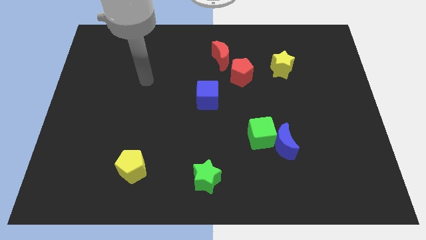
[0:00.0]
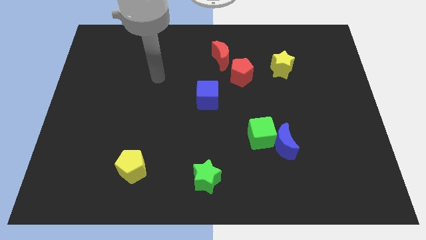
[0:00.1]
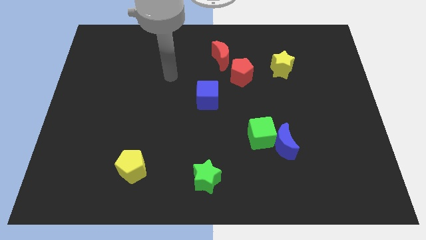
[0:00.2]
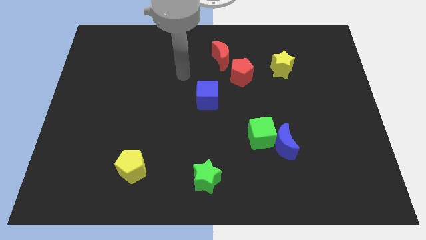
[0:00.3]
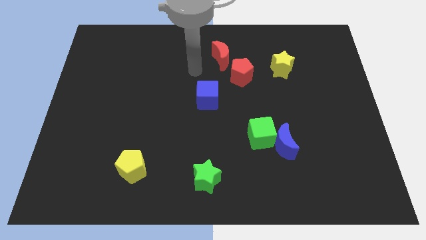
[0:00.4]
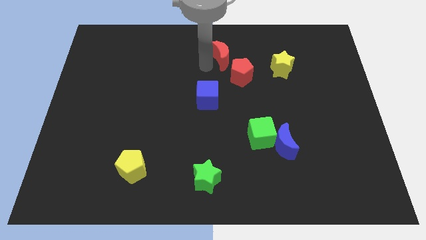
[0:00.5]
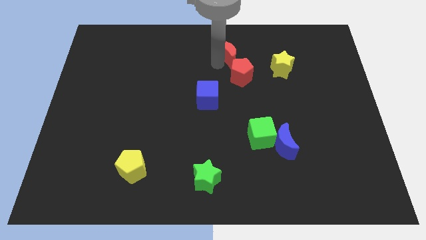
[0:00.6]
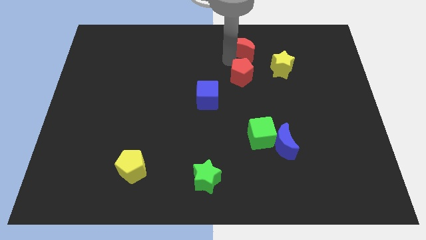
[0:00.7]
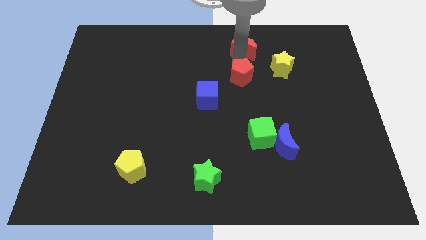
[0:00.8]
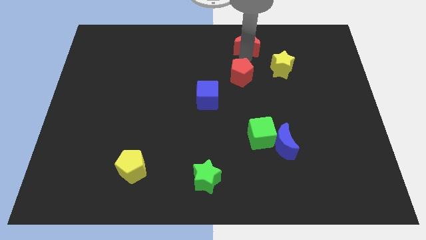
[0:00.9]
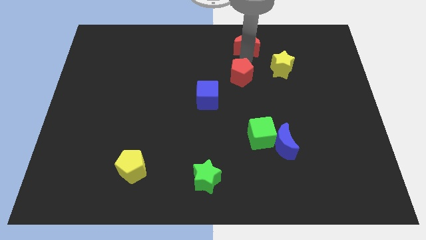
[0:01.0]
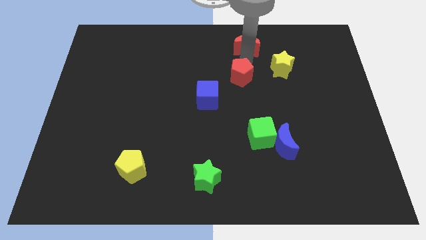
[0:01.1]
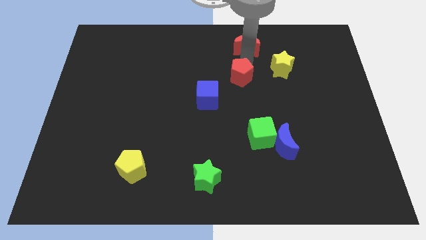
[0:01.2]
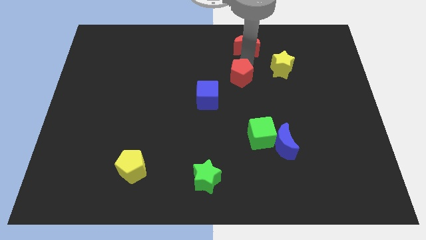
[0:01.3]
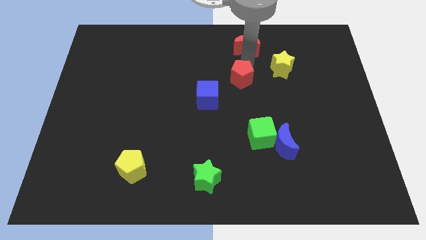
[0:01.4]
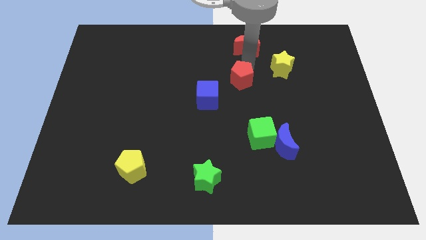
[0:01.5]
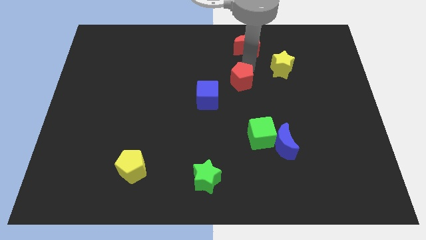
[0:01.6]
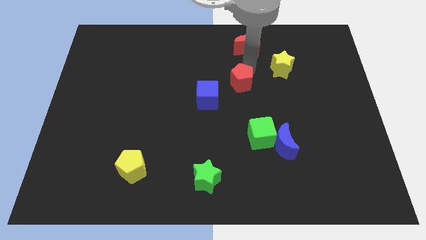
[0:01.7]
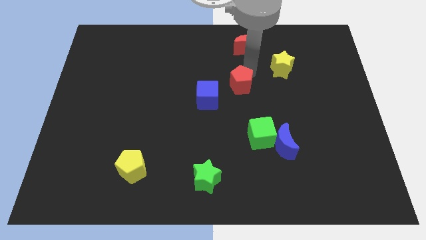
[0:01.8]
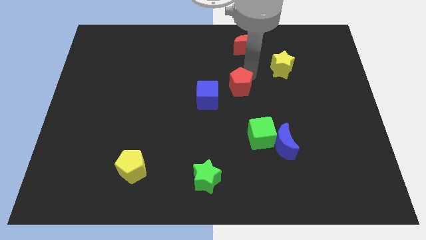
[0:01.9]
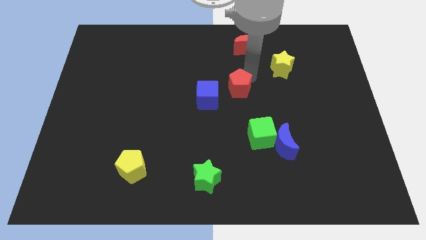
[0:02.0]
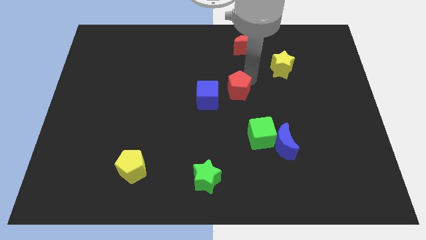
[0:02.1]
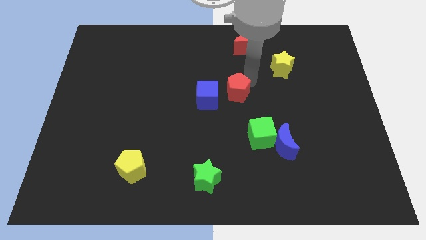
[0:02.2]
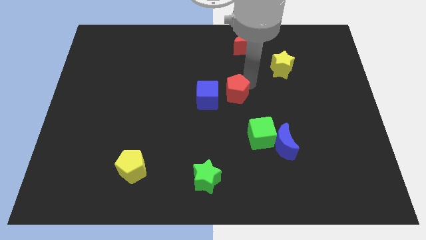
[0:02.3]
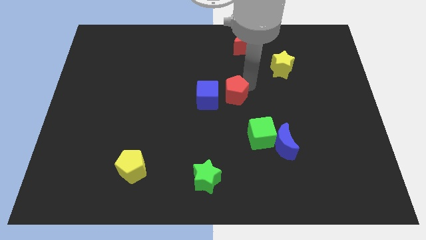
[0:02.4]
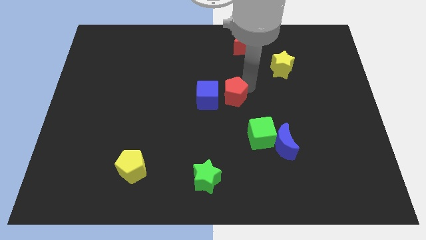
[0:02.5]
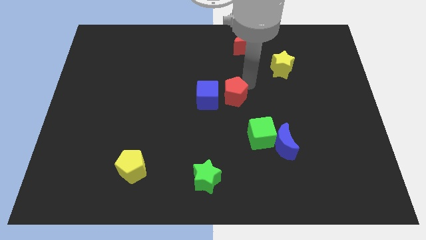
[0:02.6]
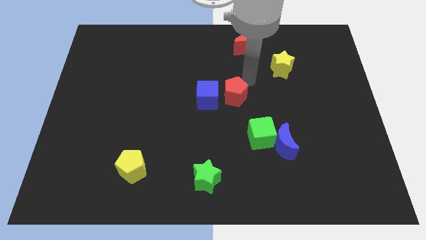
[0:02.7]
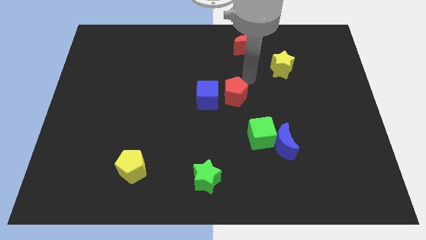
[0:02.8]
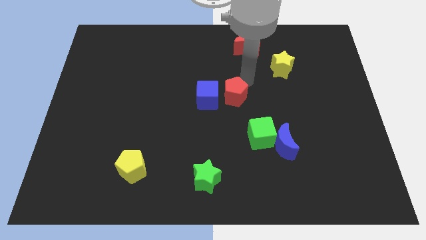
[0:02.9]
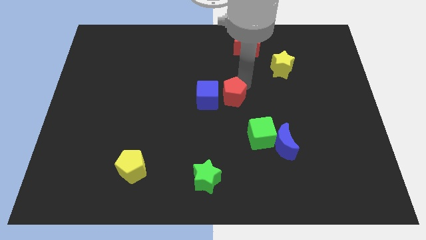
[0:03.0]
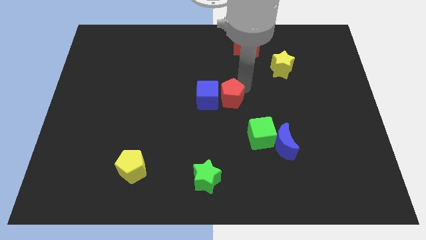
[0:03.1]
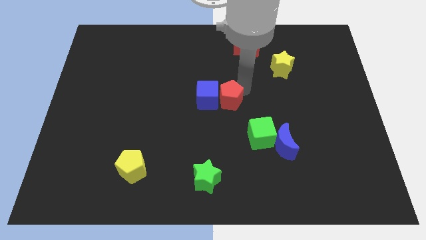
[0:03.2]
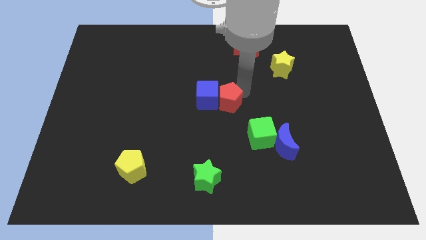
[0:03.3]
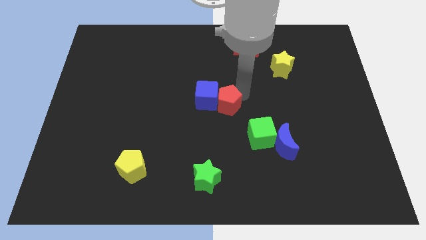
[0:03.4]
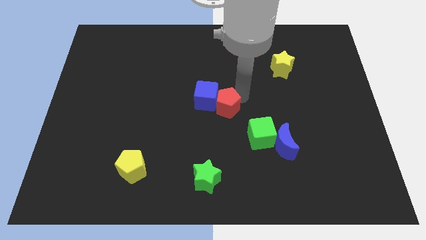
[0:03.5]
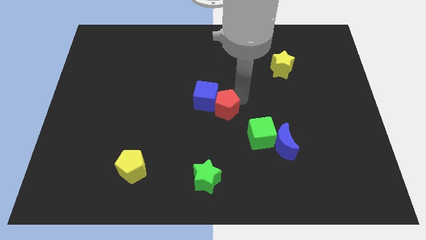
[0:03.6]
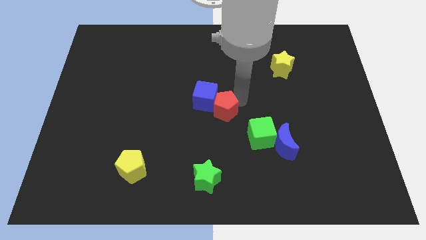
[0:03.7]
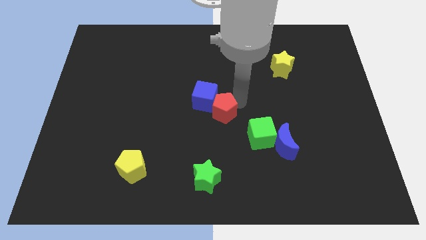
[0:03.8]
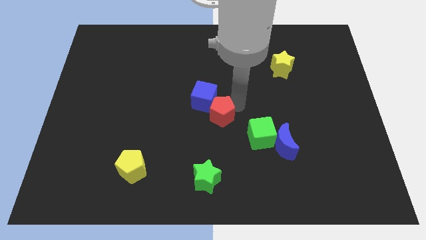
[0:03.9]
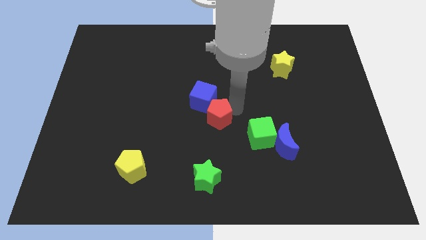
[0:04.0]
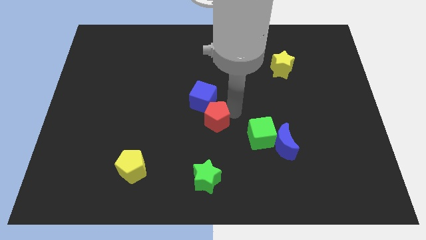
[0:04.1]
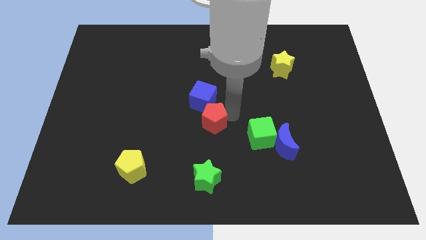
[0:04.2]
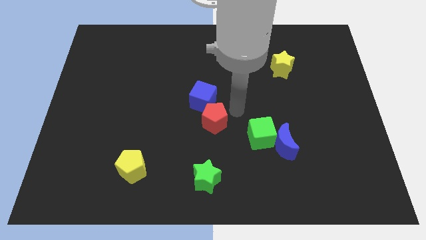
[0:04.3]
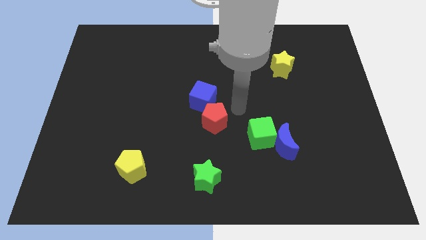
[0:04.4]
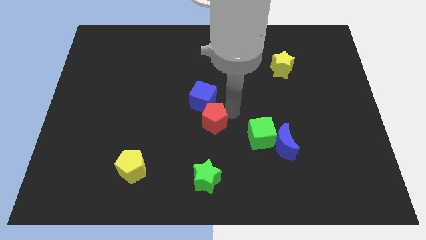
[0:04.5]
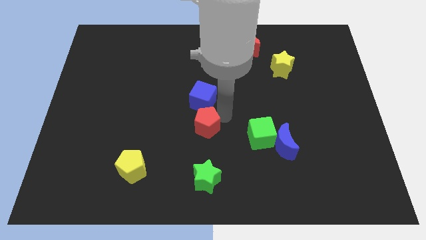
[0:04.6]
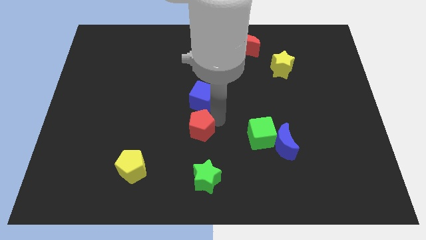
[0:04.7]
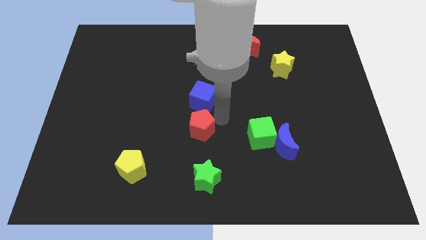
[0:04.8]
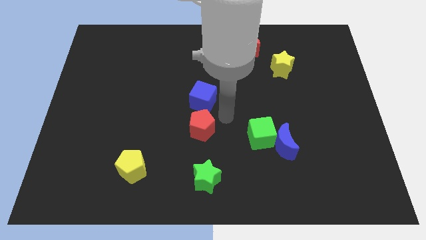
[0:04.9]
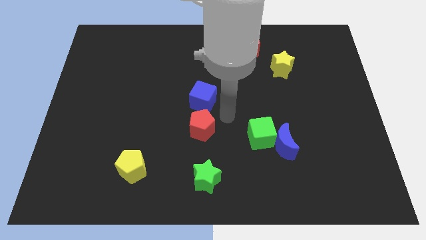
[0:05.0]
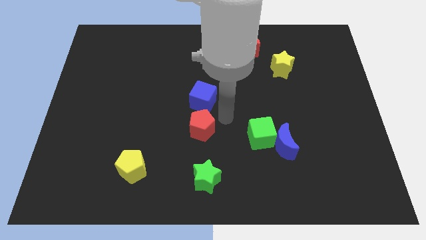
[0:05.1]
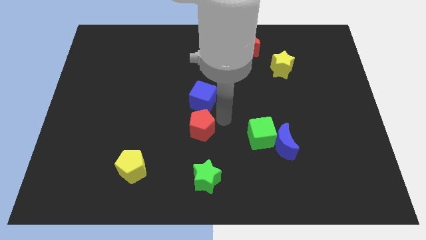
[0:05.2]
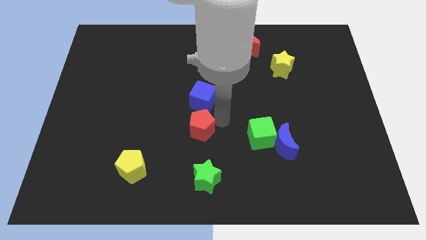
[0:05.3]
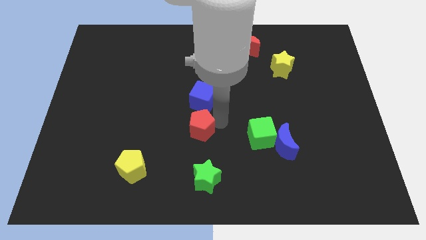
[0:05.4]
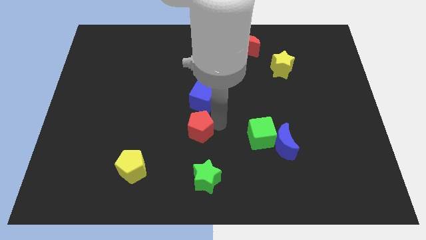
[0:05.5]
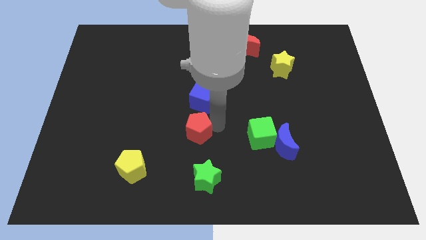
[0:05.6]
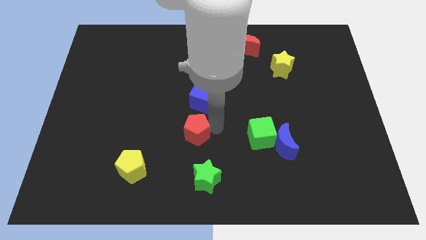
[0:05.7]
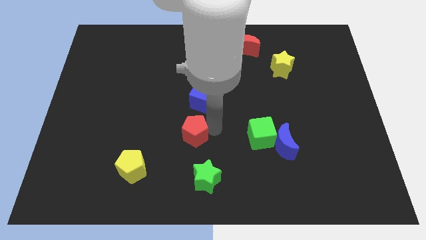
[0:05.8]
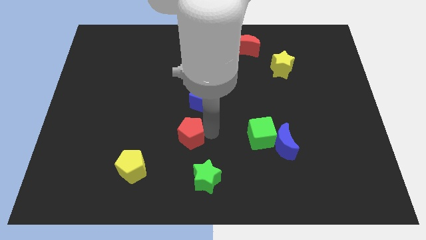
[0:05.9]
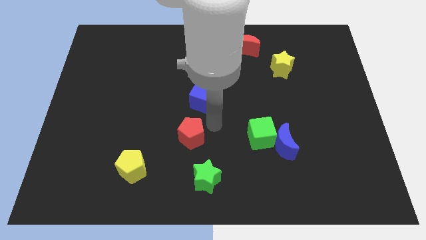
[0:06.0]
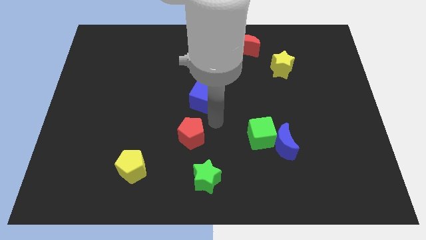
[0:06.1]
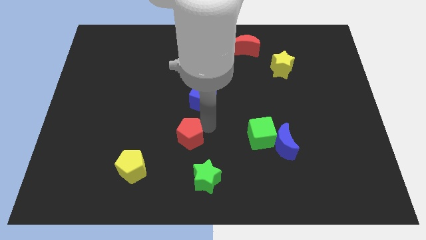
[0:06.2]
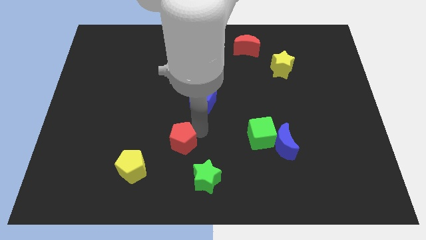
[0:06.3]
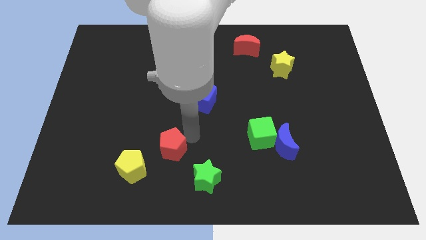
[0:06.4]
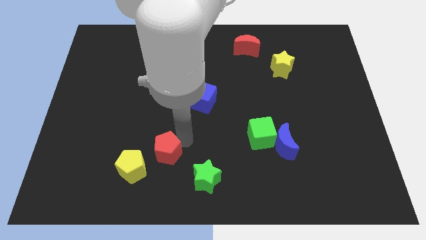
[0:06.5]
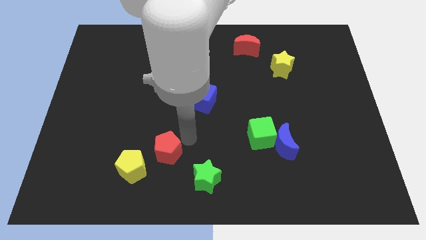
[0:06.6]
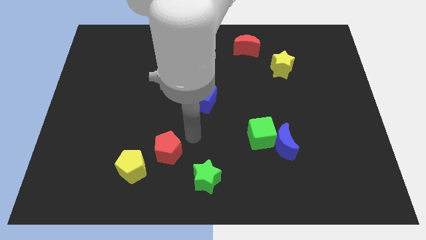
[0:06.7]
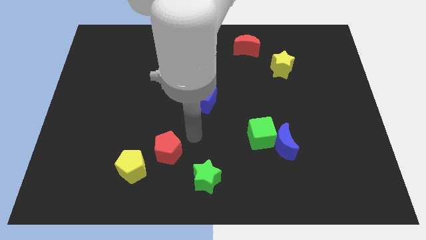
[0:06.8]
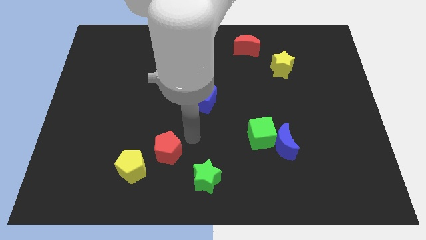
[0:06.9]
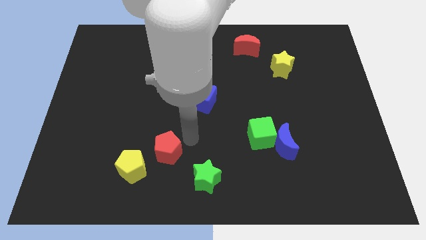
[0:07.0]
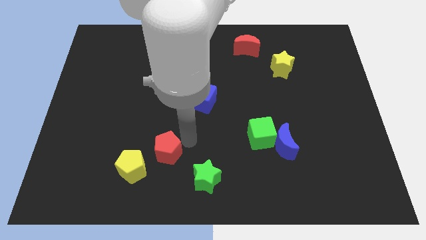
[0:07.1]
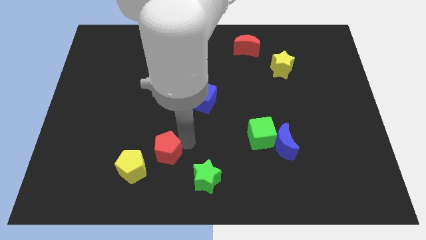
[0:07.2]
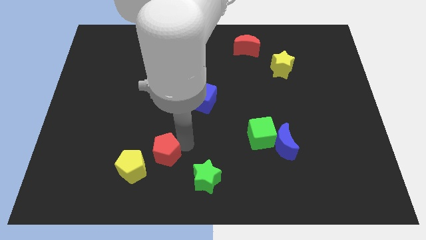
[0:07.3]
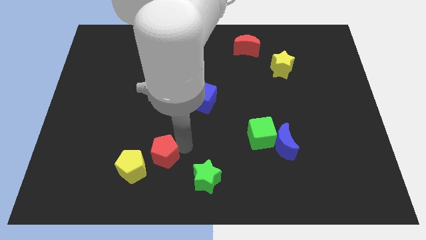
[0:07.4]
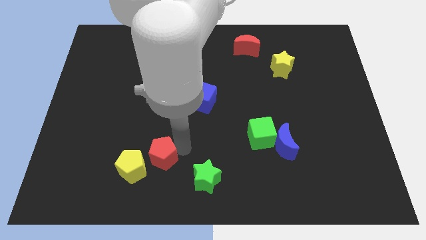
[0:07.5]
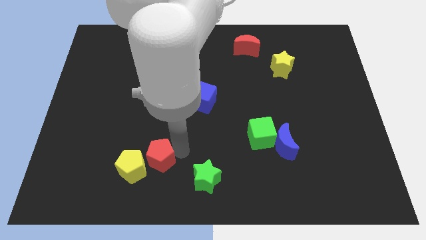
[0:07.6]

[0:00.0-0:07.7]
push the red pentagon towards the yellow pentagon
